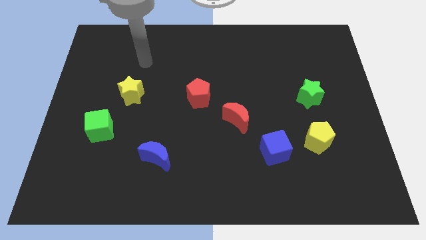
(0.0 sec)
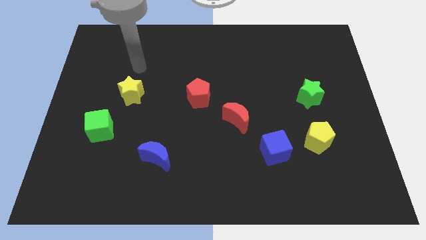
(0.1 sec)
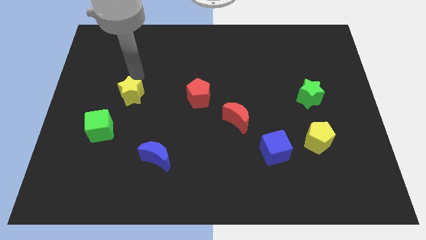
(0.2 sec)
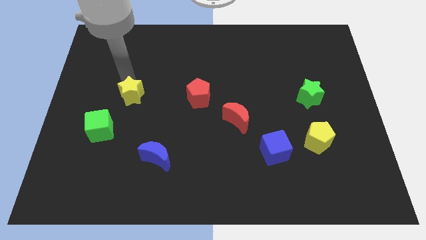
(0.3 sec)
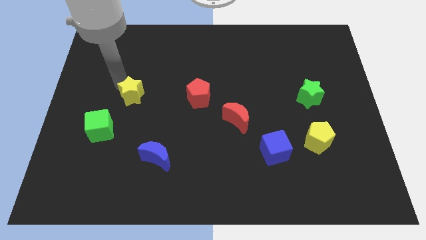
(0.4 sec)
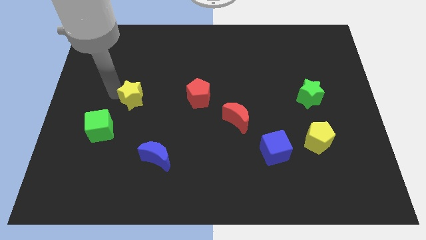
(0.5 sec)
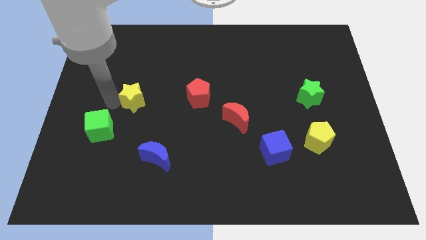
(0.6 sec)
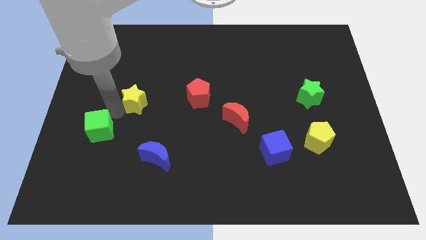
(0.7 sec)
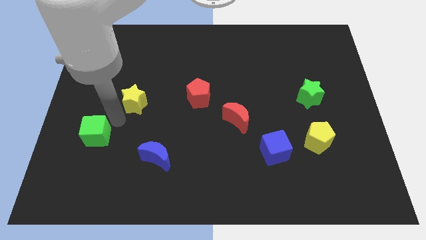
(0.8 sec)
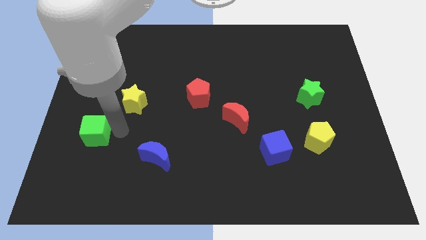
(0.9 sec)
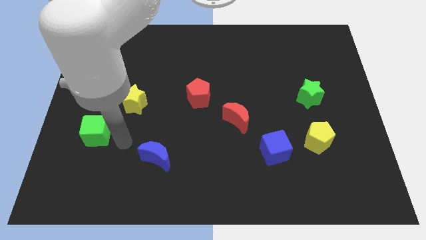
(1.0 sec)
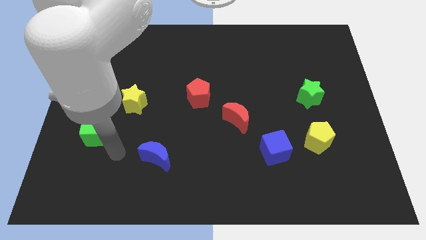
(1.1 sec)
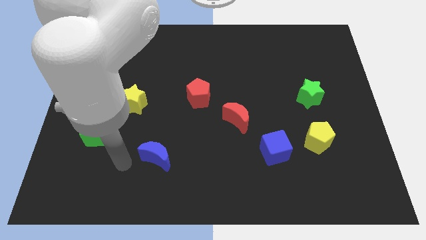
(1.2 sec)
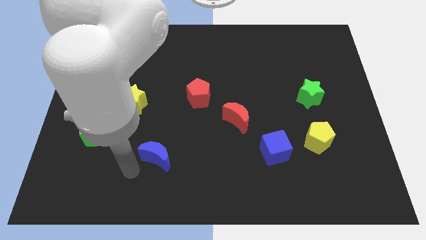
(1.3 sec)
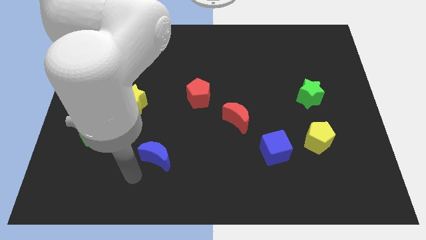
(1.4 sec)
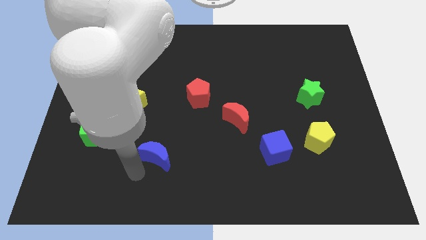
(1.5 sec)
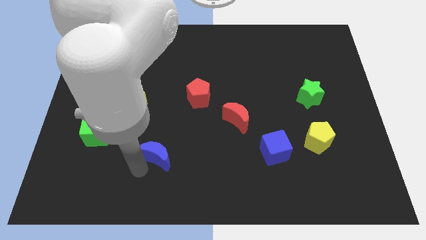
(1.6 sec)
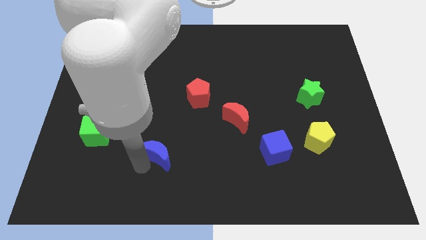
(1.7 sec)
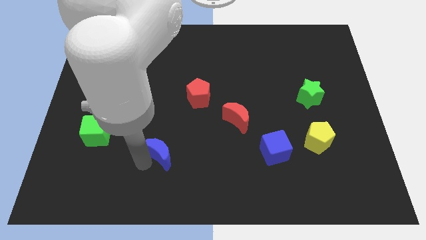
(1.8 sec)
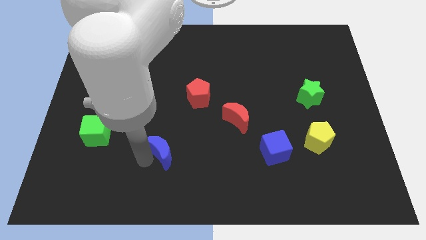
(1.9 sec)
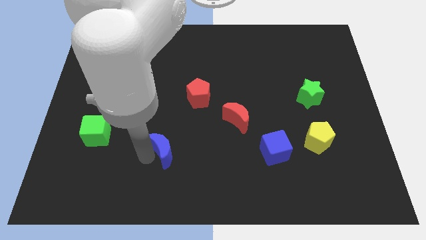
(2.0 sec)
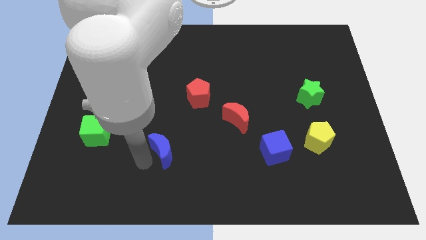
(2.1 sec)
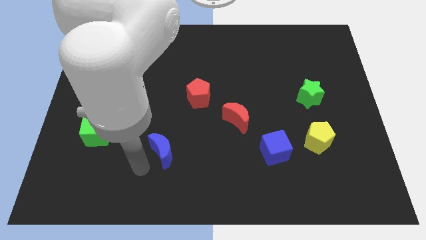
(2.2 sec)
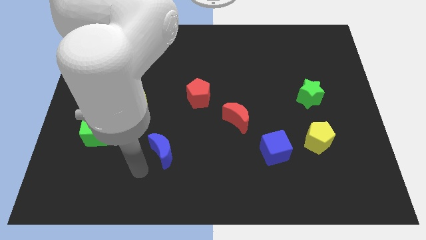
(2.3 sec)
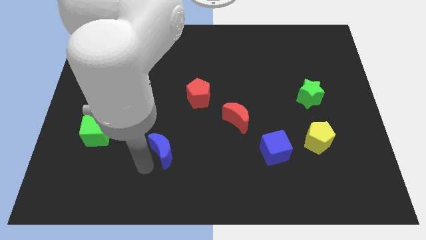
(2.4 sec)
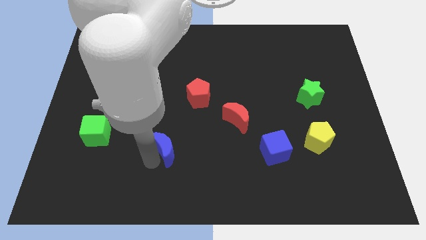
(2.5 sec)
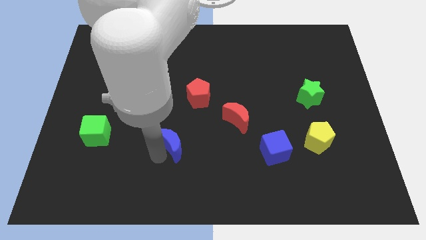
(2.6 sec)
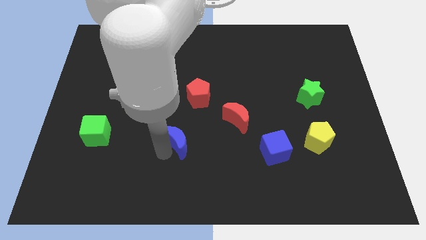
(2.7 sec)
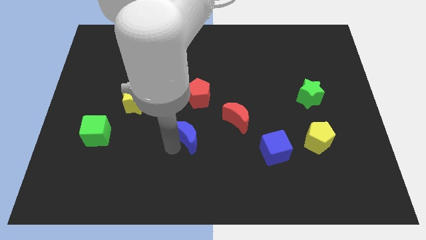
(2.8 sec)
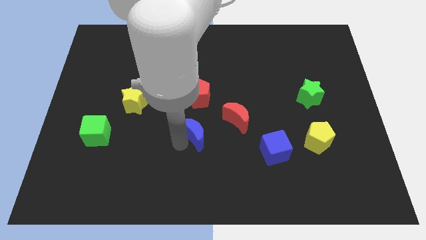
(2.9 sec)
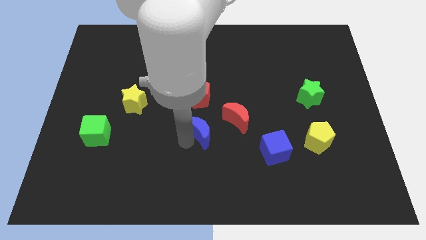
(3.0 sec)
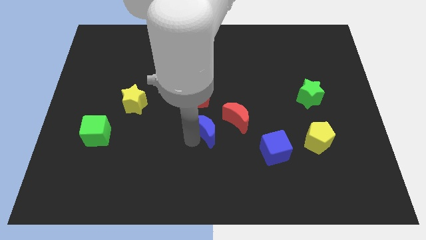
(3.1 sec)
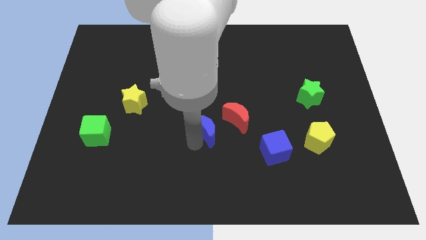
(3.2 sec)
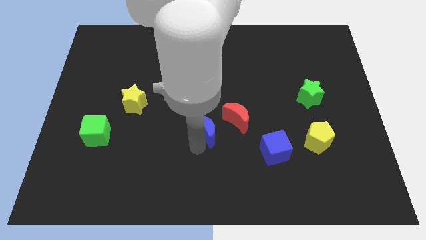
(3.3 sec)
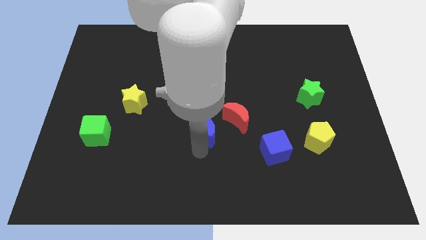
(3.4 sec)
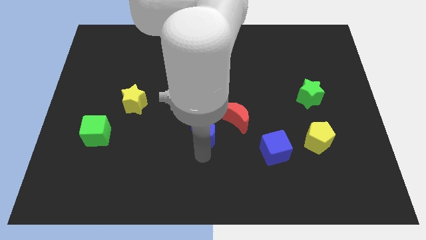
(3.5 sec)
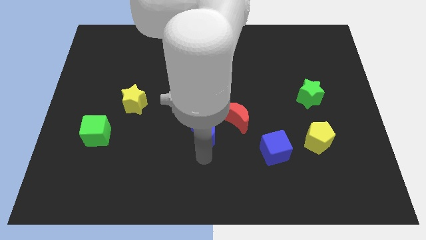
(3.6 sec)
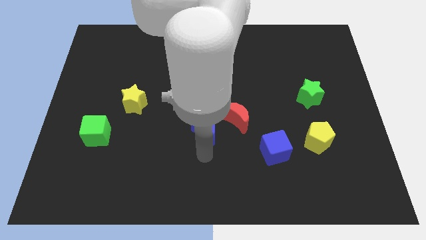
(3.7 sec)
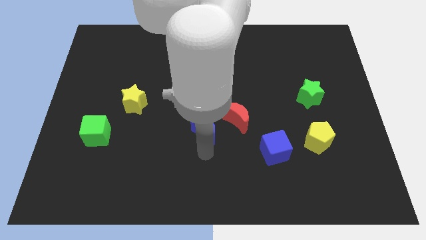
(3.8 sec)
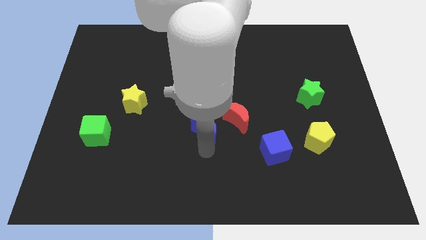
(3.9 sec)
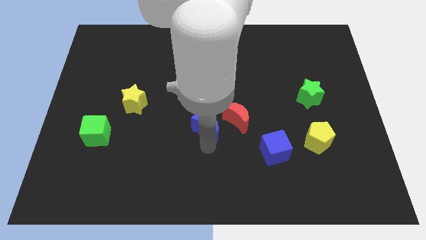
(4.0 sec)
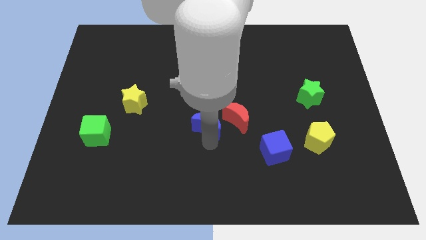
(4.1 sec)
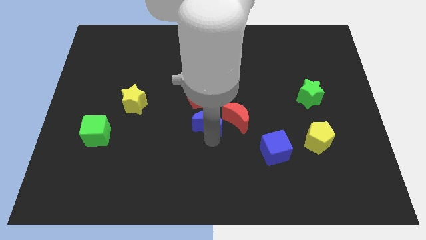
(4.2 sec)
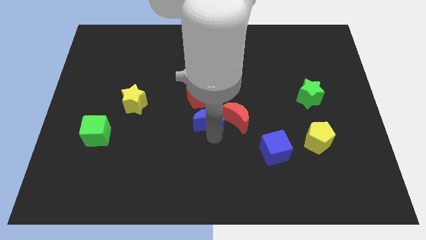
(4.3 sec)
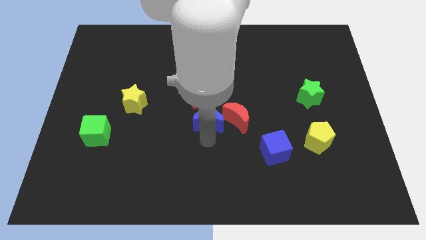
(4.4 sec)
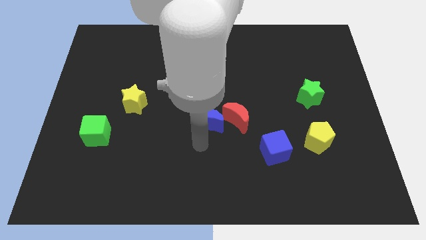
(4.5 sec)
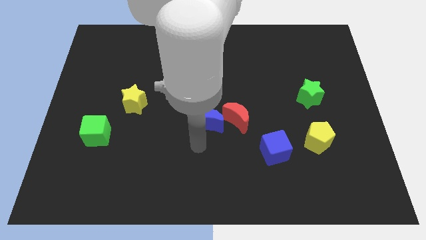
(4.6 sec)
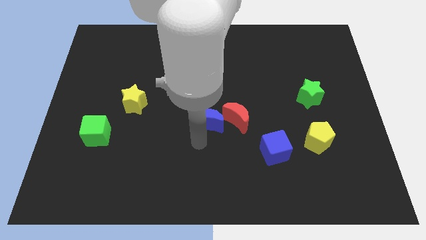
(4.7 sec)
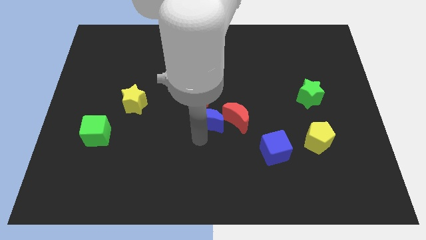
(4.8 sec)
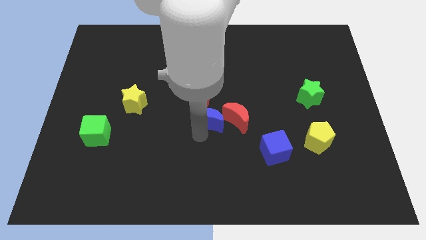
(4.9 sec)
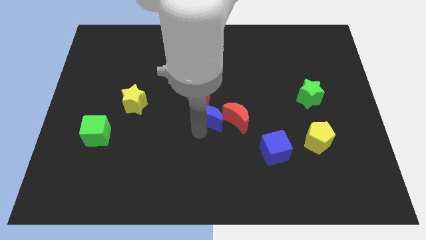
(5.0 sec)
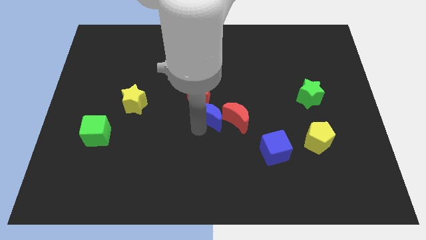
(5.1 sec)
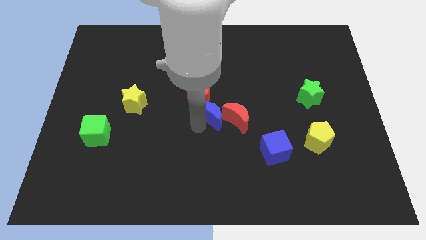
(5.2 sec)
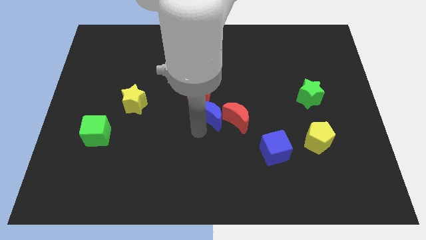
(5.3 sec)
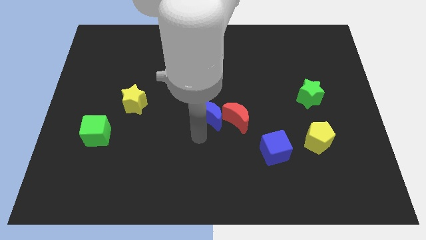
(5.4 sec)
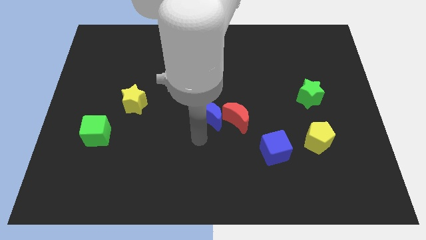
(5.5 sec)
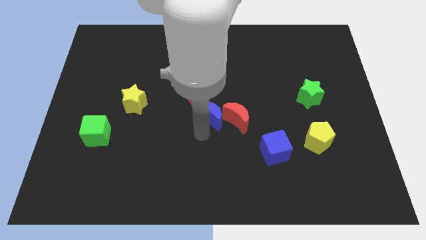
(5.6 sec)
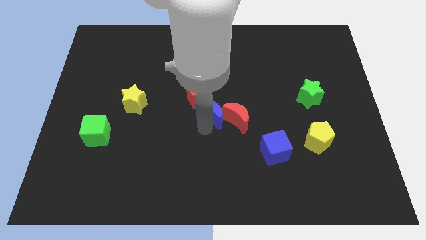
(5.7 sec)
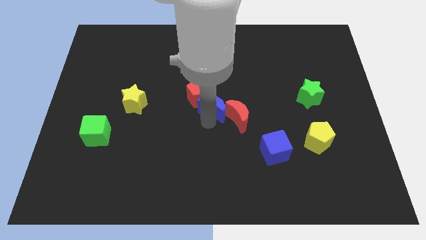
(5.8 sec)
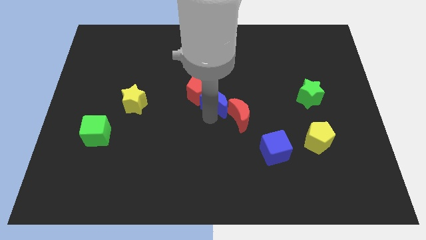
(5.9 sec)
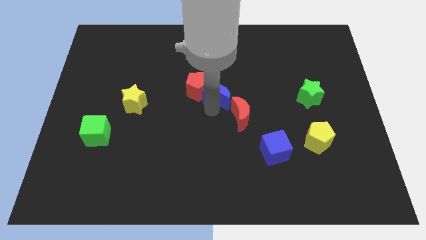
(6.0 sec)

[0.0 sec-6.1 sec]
move the blue moon diagonally upwards and right

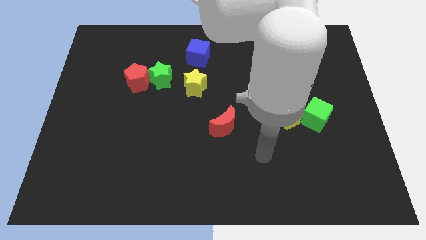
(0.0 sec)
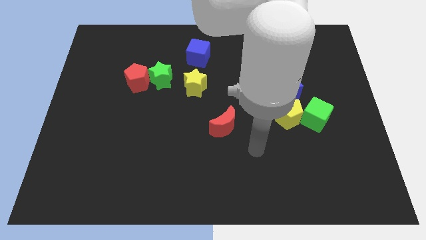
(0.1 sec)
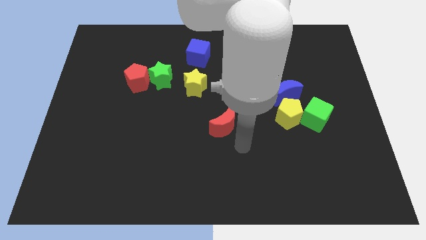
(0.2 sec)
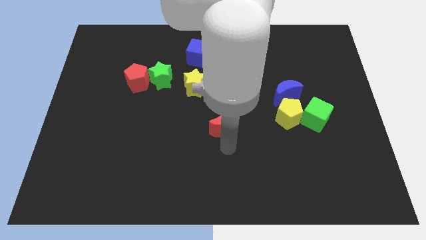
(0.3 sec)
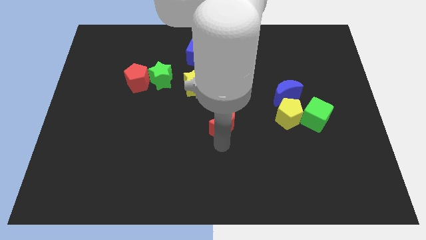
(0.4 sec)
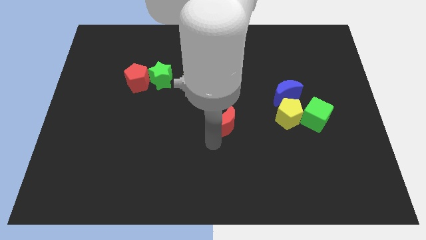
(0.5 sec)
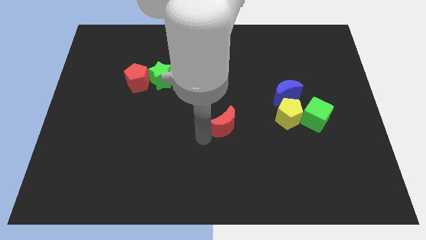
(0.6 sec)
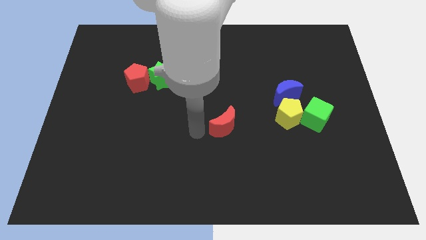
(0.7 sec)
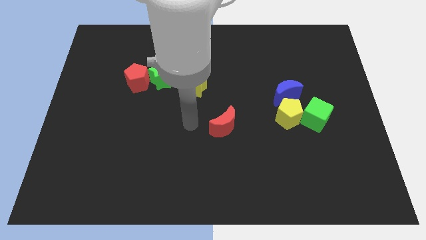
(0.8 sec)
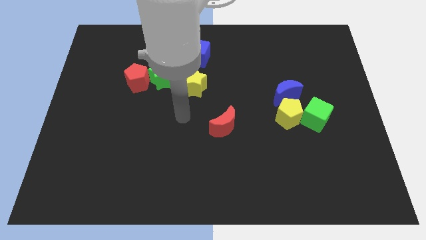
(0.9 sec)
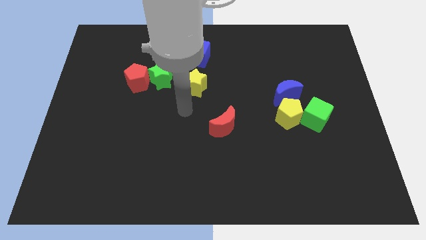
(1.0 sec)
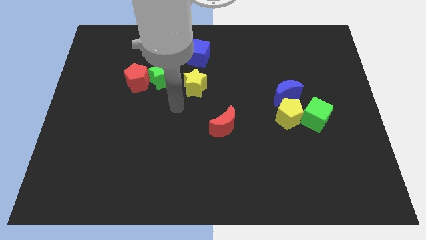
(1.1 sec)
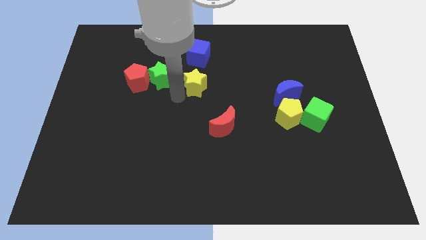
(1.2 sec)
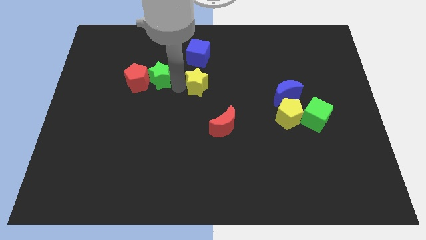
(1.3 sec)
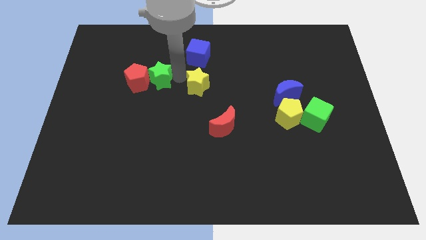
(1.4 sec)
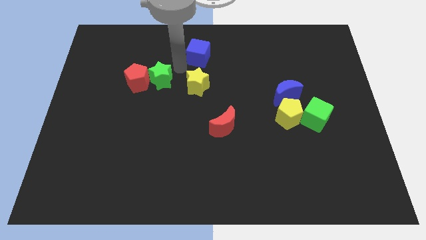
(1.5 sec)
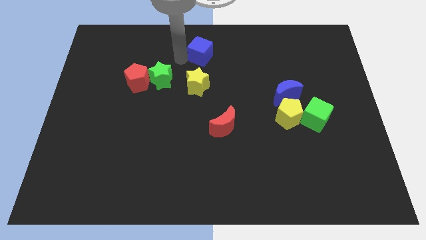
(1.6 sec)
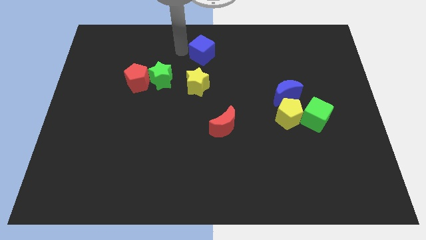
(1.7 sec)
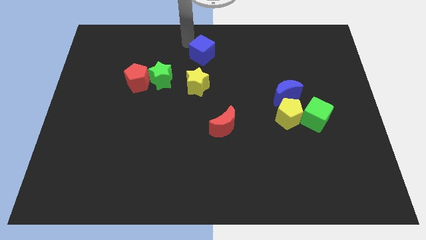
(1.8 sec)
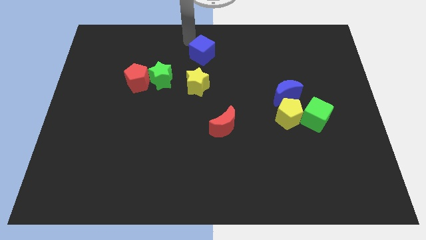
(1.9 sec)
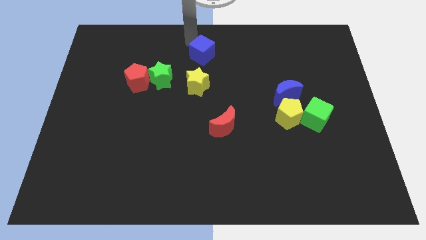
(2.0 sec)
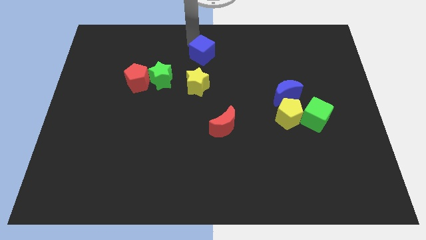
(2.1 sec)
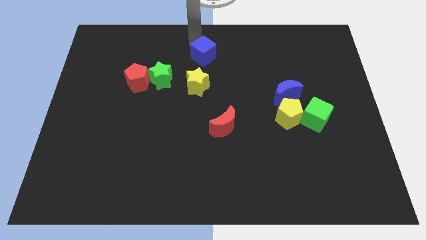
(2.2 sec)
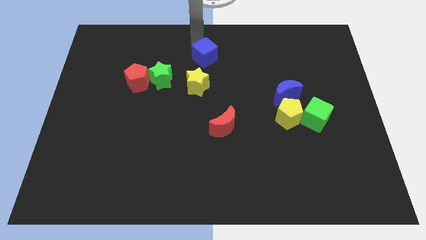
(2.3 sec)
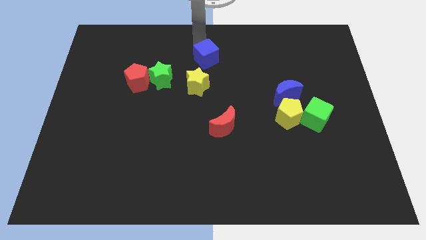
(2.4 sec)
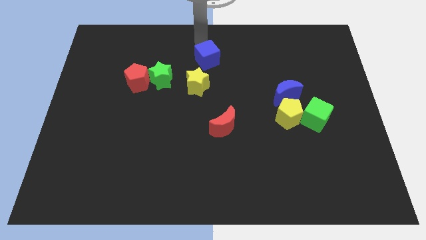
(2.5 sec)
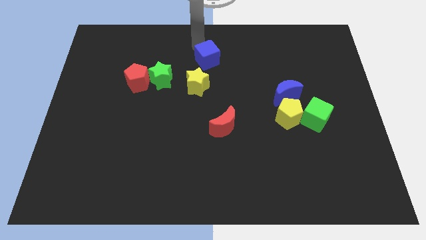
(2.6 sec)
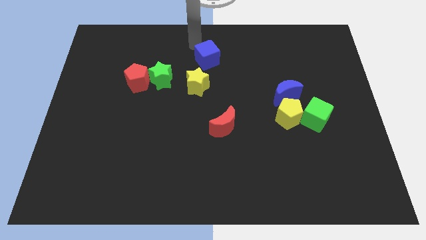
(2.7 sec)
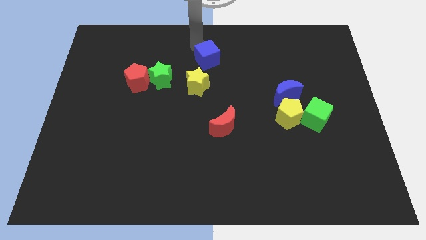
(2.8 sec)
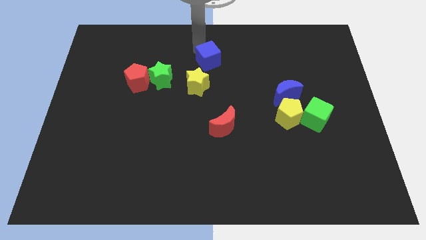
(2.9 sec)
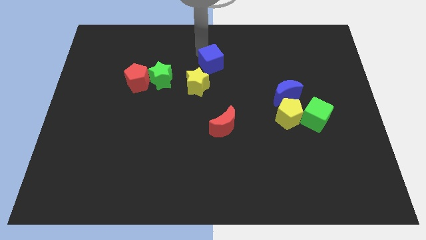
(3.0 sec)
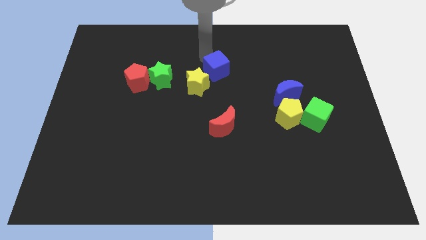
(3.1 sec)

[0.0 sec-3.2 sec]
slightly push the blue cube downwards and then to the right
